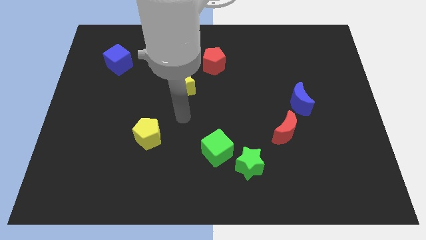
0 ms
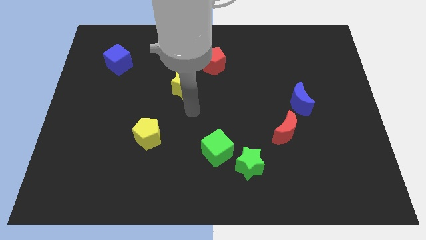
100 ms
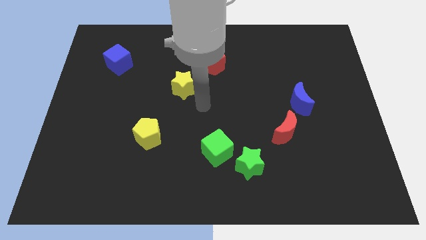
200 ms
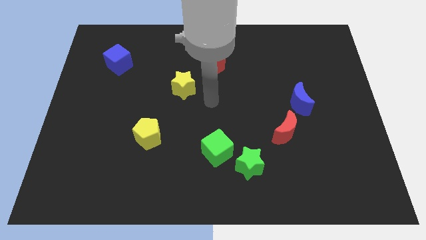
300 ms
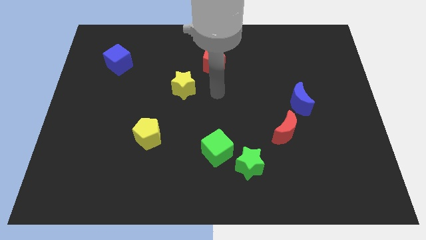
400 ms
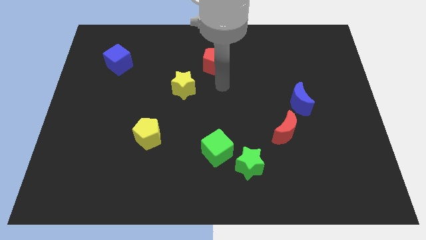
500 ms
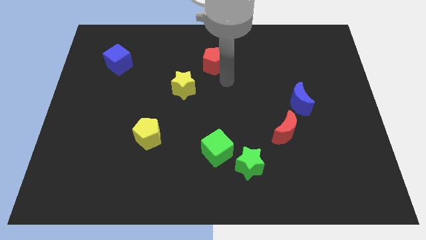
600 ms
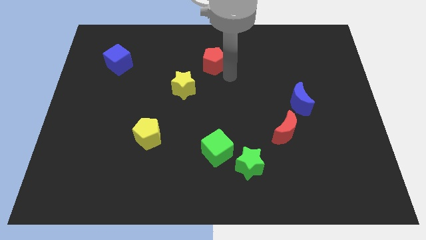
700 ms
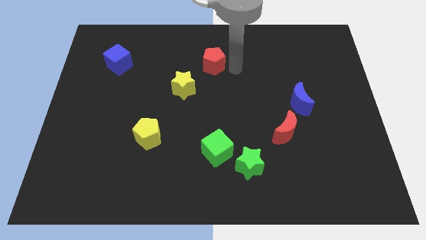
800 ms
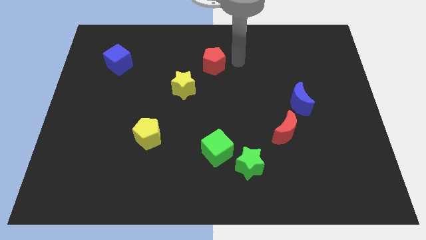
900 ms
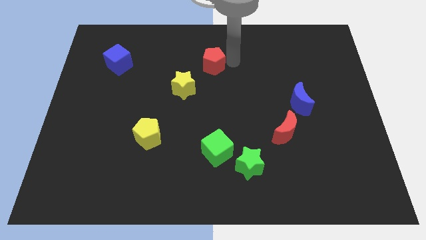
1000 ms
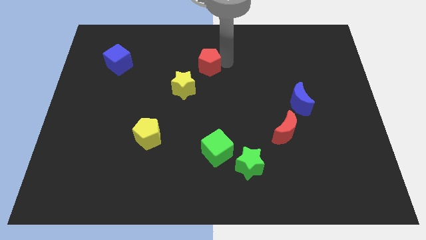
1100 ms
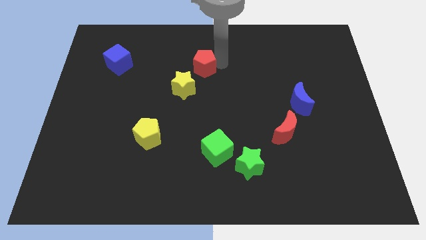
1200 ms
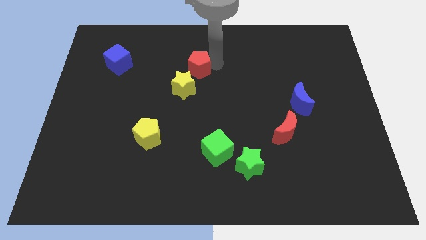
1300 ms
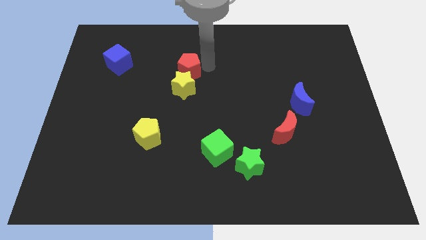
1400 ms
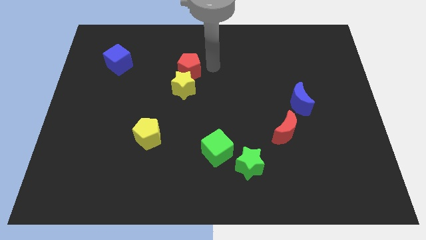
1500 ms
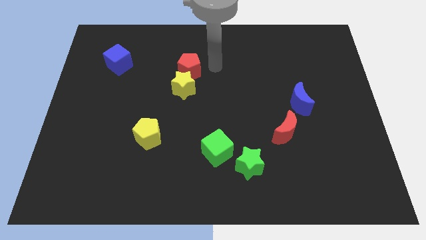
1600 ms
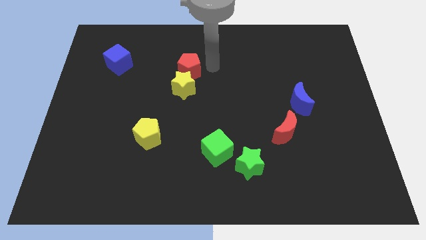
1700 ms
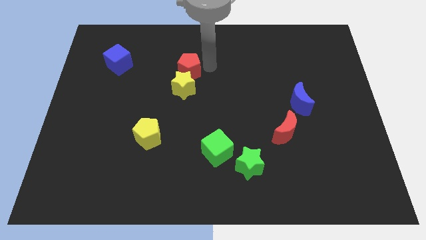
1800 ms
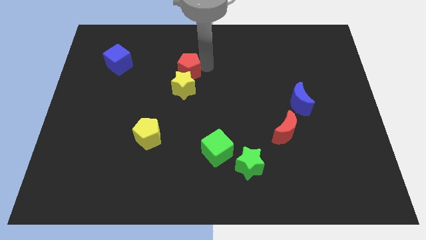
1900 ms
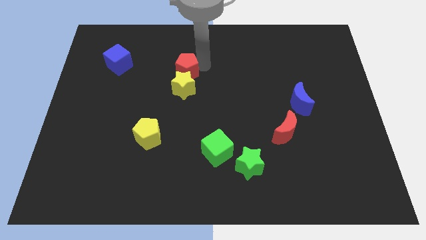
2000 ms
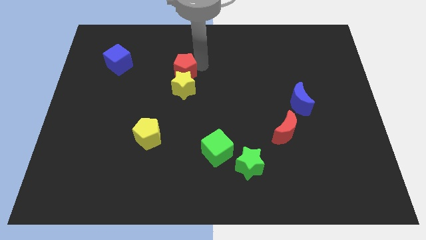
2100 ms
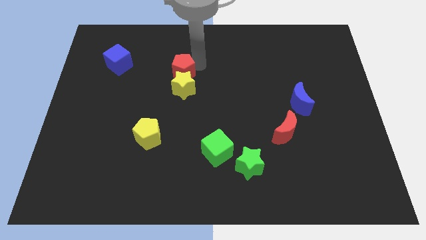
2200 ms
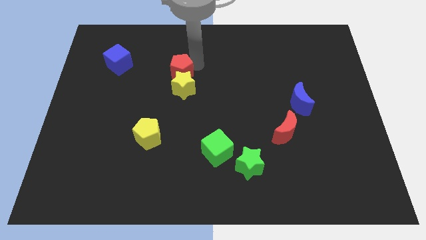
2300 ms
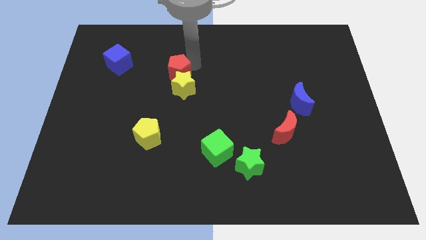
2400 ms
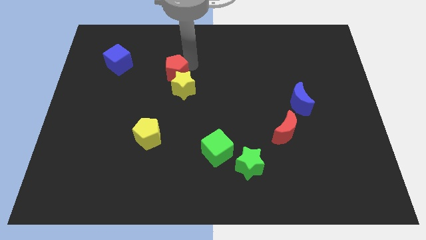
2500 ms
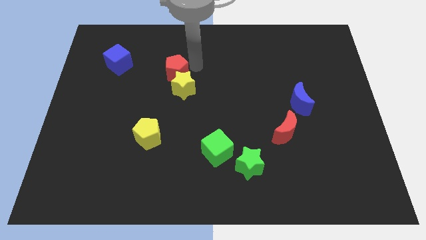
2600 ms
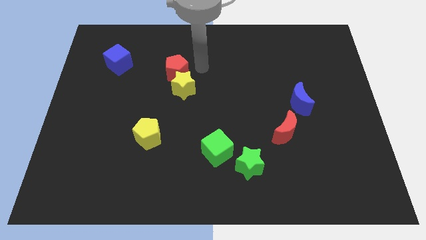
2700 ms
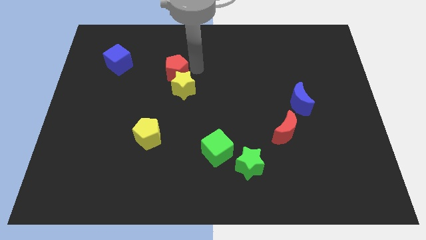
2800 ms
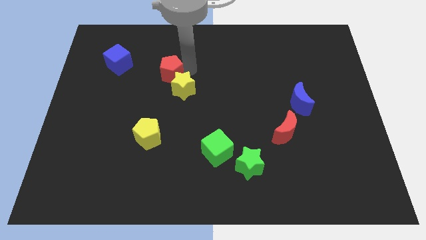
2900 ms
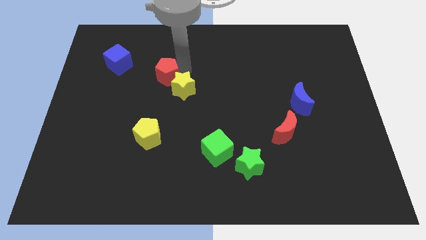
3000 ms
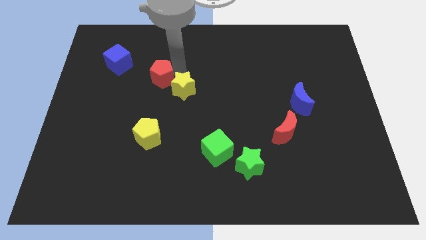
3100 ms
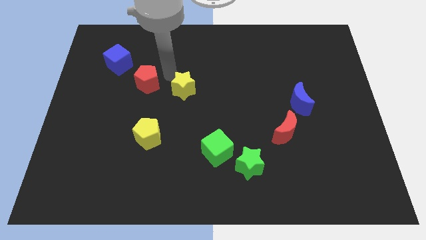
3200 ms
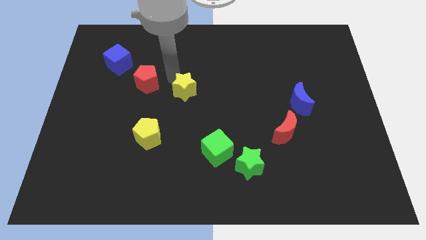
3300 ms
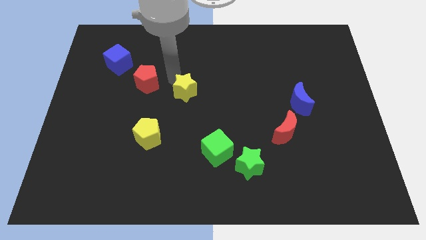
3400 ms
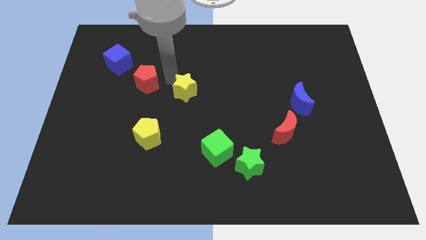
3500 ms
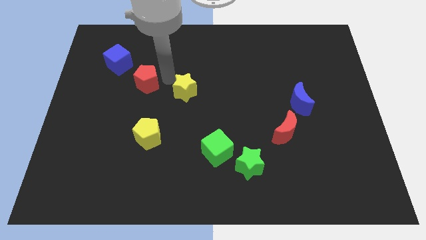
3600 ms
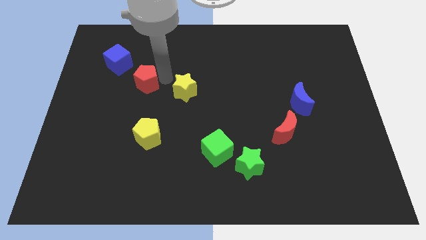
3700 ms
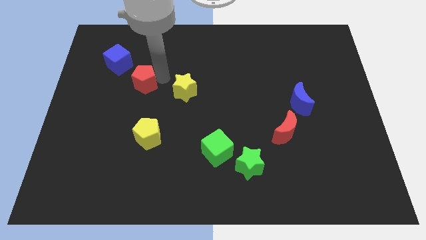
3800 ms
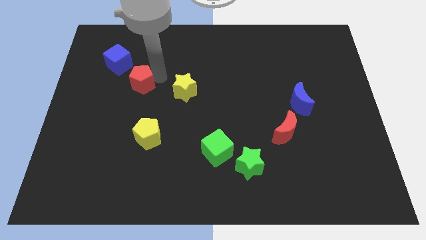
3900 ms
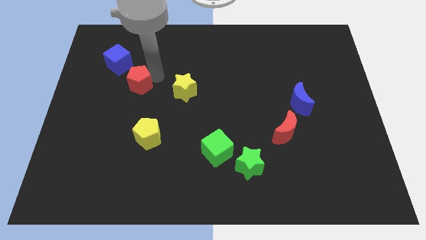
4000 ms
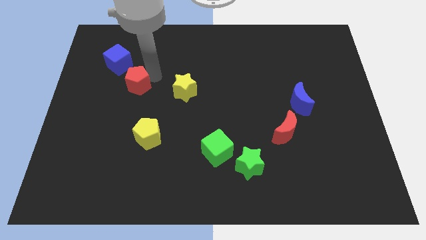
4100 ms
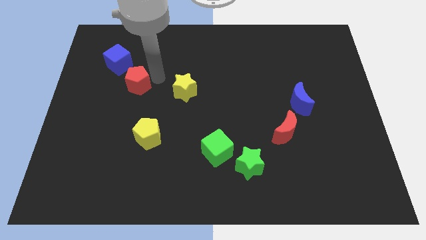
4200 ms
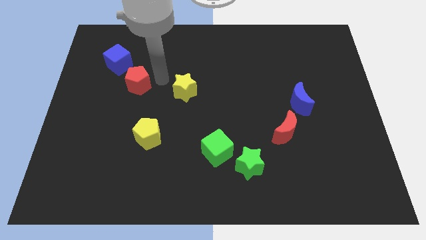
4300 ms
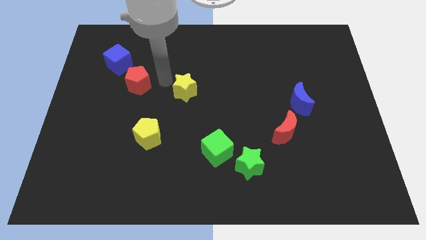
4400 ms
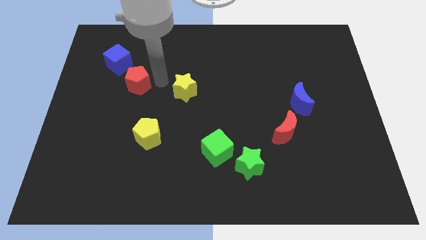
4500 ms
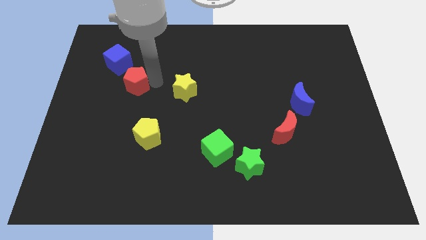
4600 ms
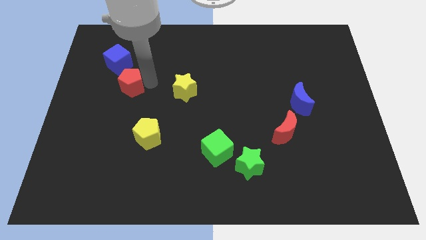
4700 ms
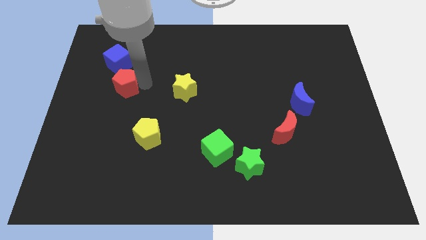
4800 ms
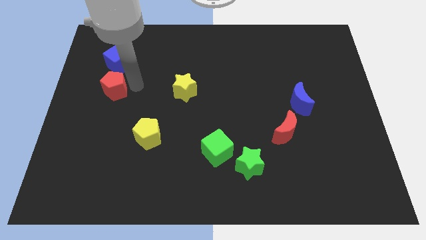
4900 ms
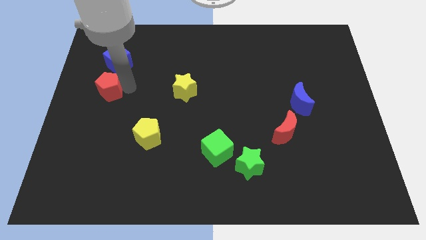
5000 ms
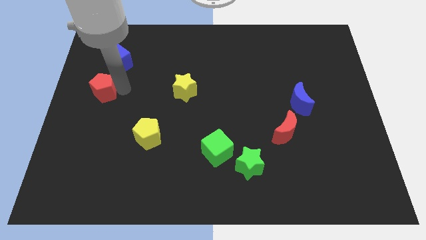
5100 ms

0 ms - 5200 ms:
push the red pentagon to the center left

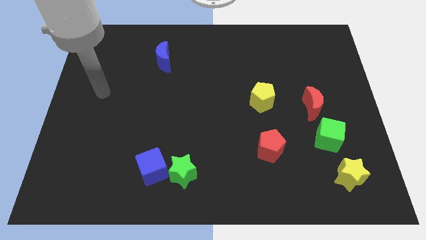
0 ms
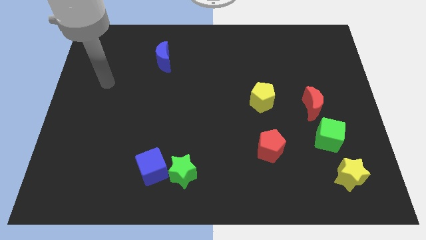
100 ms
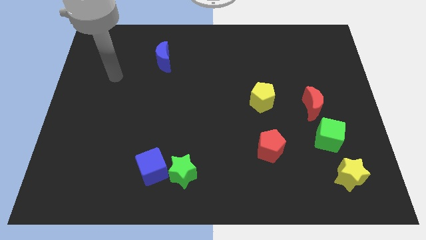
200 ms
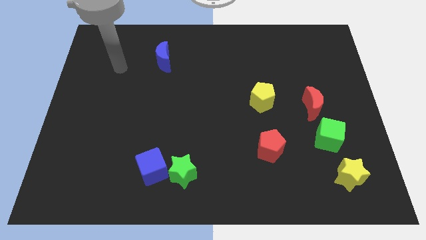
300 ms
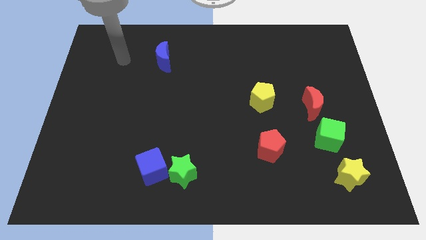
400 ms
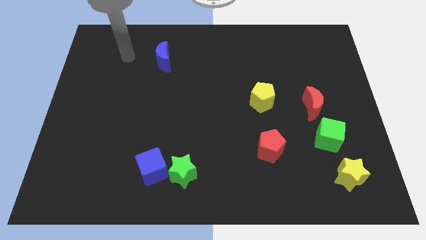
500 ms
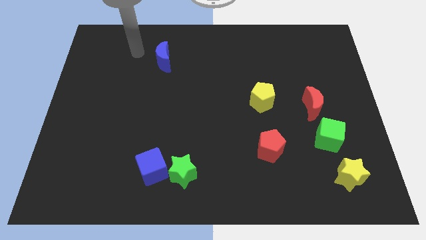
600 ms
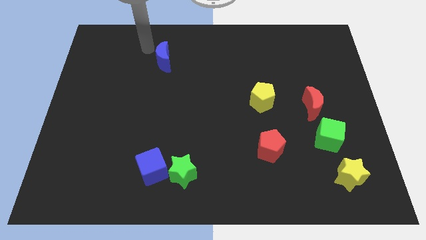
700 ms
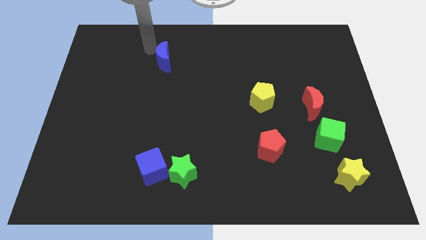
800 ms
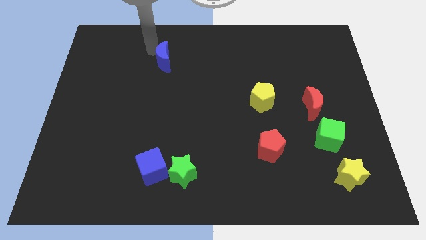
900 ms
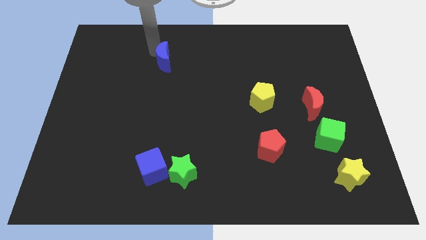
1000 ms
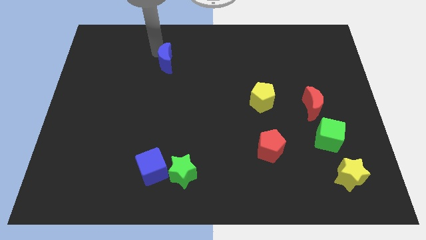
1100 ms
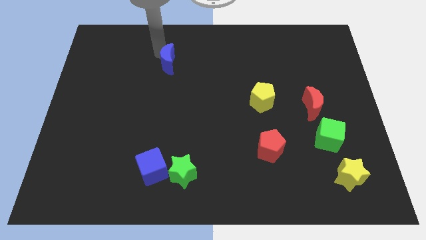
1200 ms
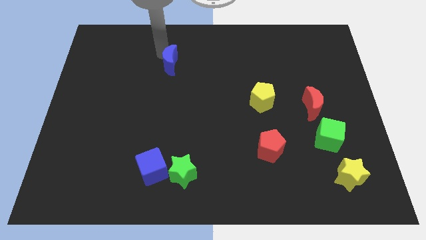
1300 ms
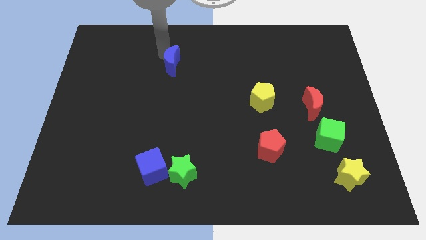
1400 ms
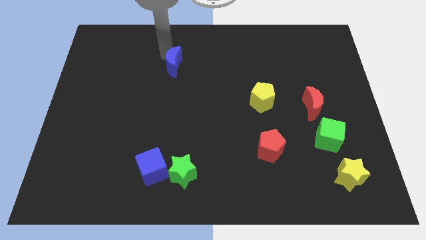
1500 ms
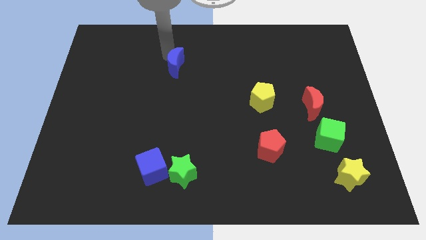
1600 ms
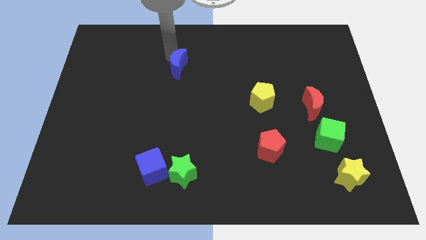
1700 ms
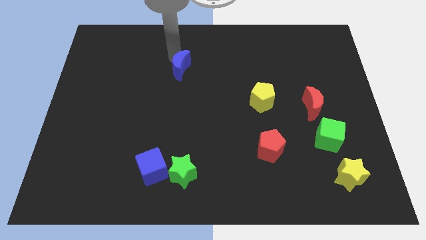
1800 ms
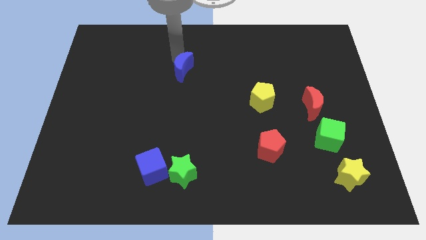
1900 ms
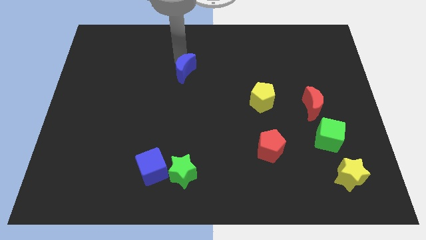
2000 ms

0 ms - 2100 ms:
put the blue moon to the middle
